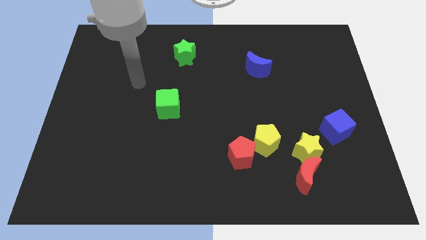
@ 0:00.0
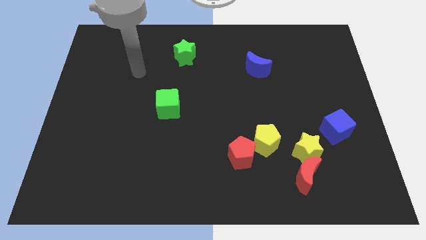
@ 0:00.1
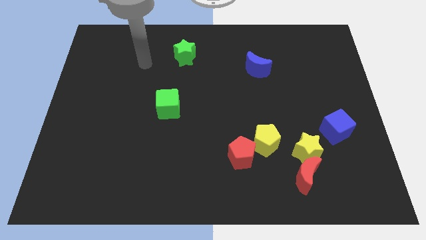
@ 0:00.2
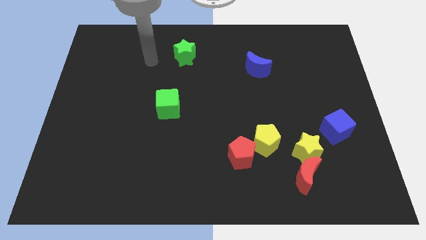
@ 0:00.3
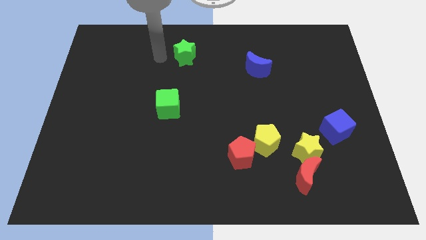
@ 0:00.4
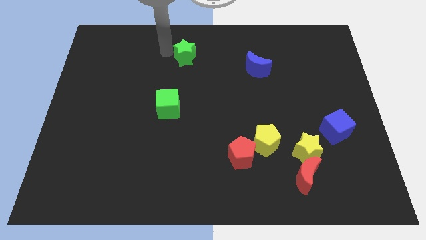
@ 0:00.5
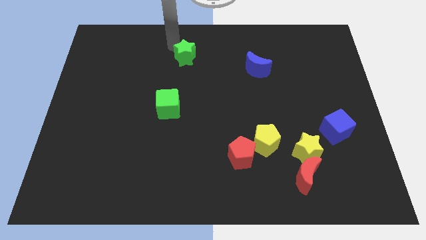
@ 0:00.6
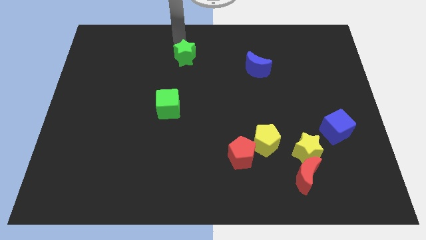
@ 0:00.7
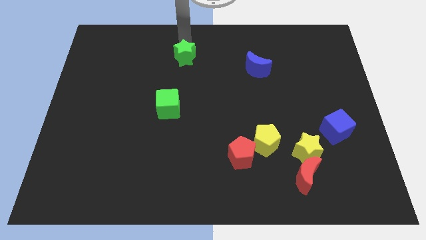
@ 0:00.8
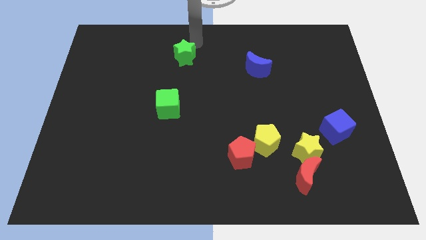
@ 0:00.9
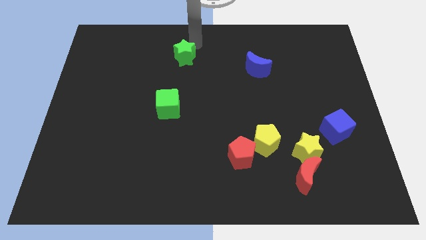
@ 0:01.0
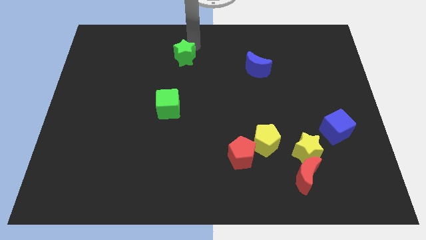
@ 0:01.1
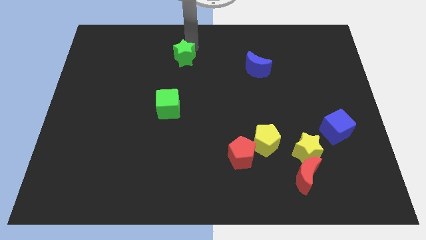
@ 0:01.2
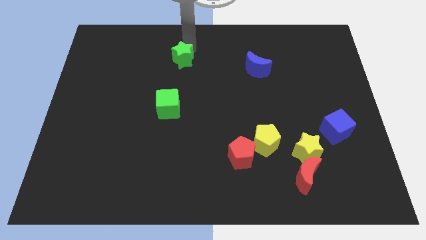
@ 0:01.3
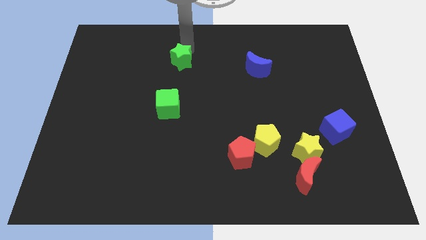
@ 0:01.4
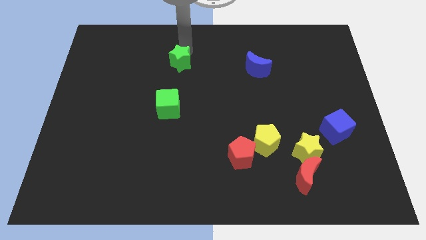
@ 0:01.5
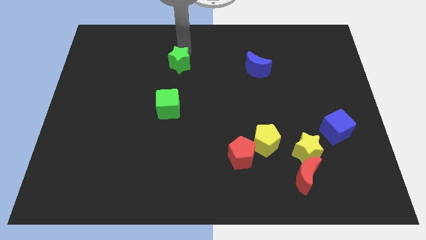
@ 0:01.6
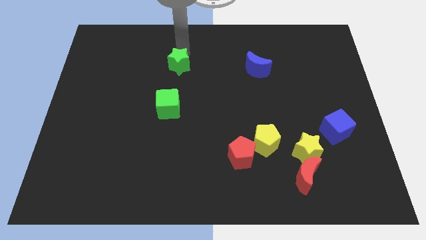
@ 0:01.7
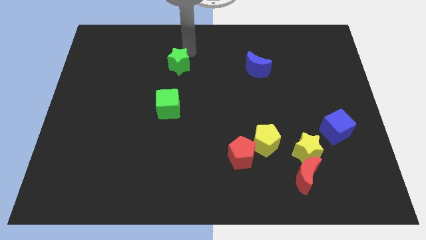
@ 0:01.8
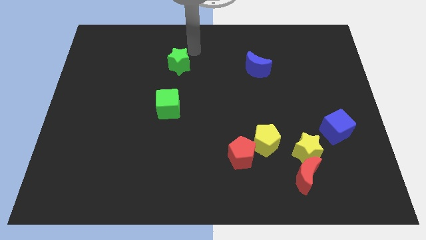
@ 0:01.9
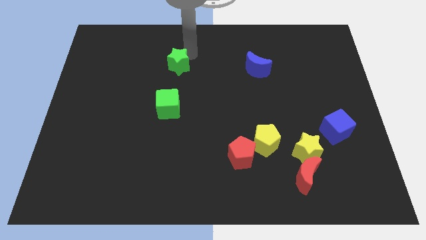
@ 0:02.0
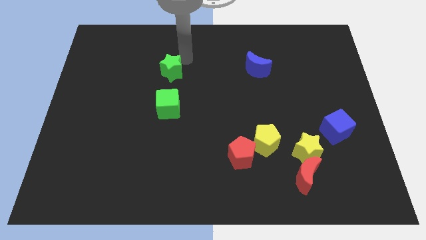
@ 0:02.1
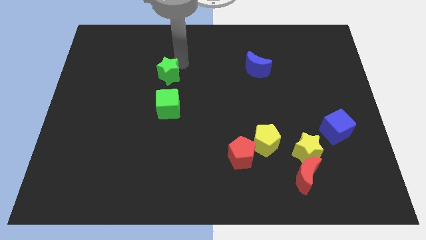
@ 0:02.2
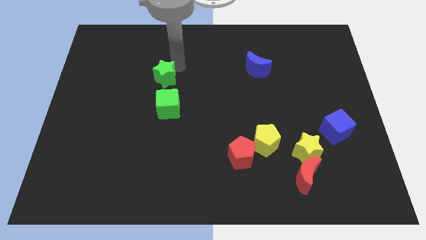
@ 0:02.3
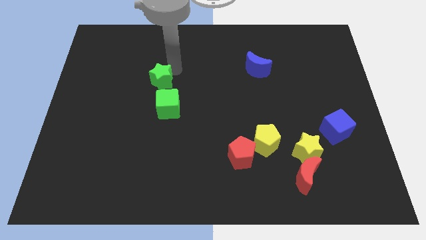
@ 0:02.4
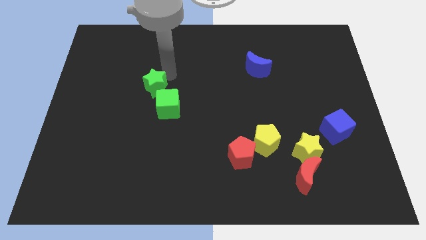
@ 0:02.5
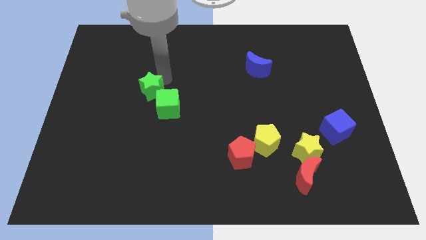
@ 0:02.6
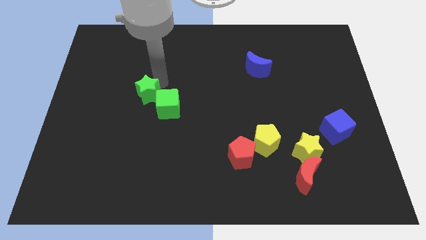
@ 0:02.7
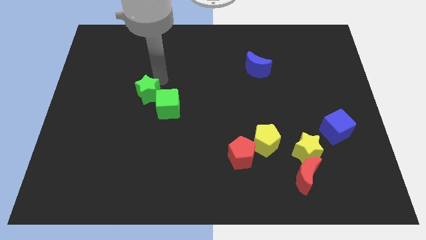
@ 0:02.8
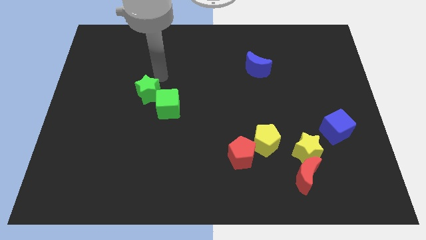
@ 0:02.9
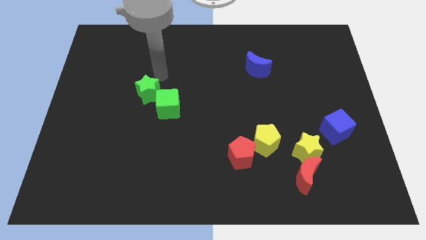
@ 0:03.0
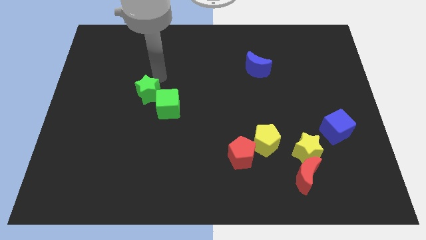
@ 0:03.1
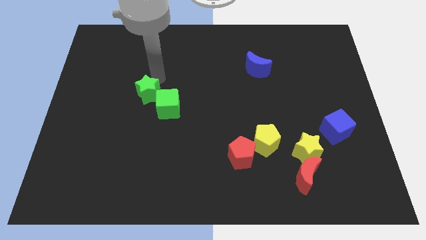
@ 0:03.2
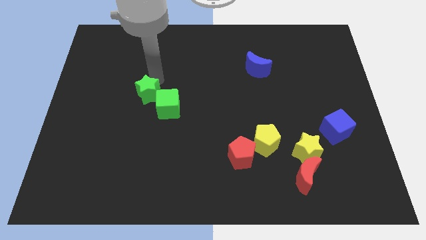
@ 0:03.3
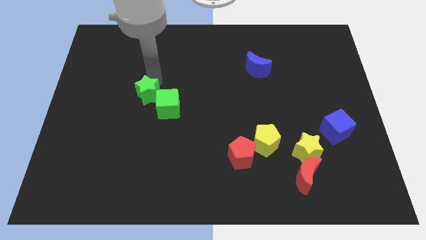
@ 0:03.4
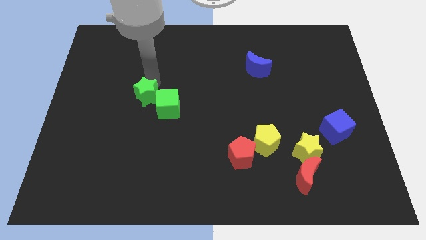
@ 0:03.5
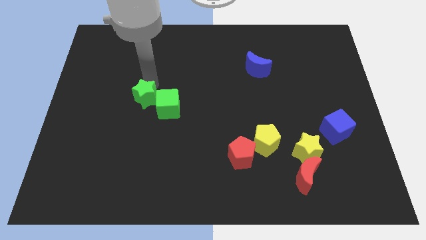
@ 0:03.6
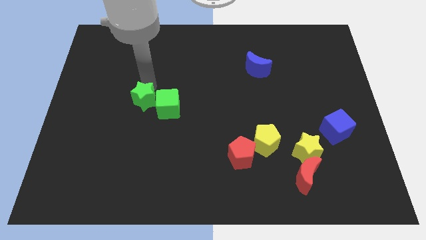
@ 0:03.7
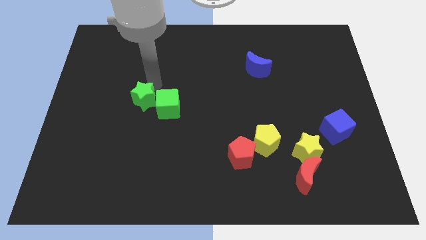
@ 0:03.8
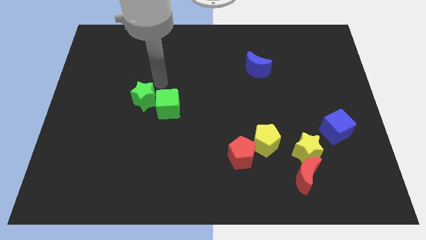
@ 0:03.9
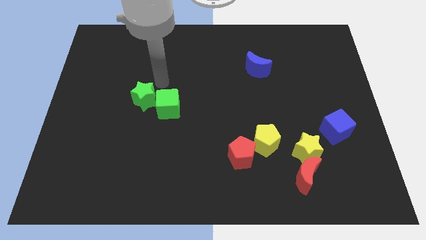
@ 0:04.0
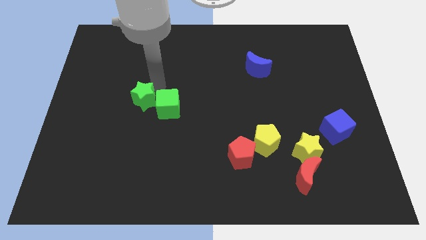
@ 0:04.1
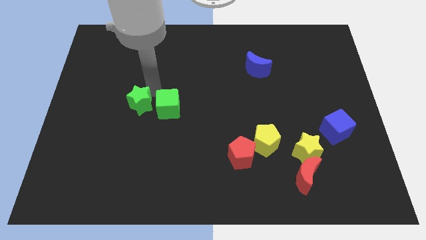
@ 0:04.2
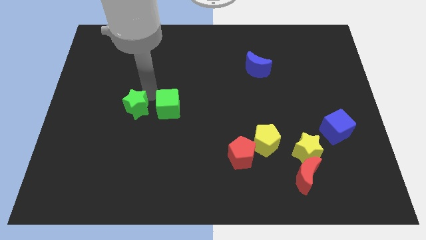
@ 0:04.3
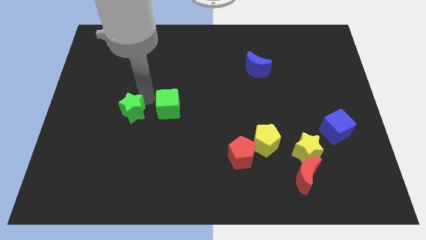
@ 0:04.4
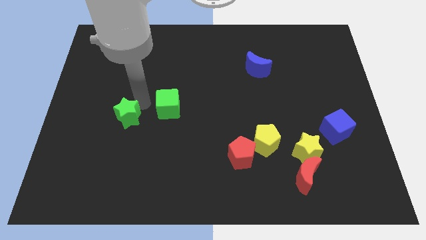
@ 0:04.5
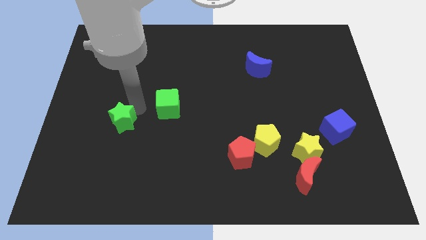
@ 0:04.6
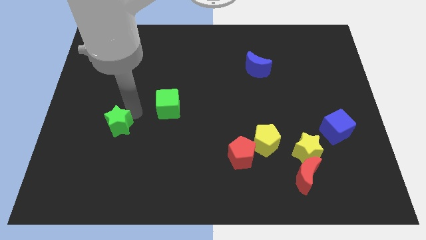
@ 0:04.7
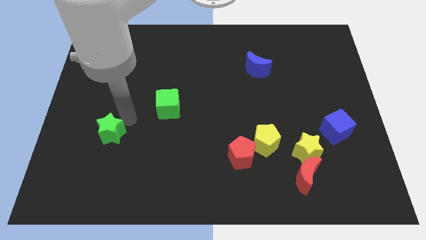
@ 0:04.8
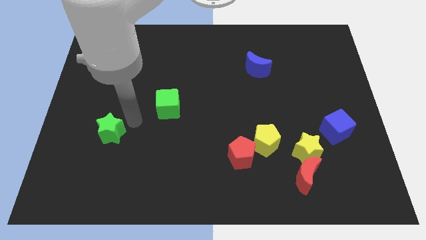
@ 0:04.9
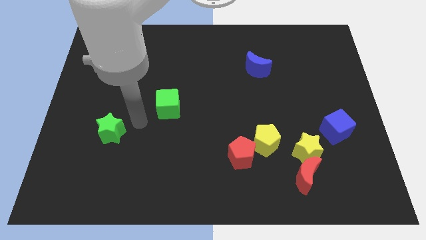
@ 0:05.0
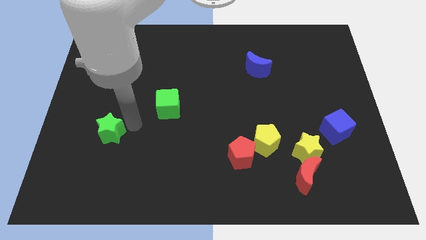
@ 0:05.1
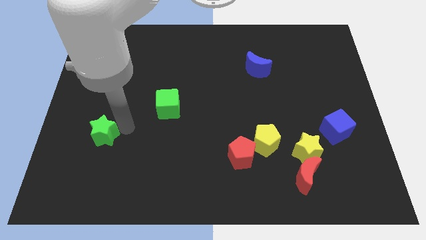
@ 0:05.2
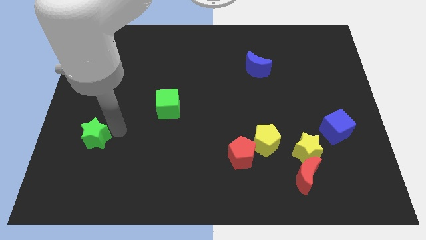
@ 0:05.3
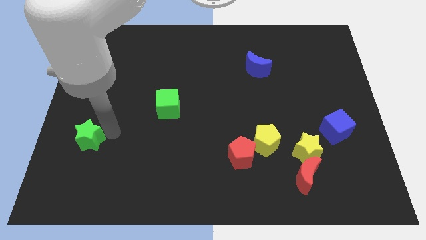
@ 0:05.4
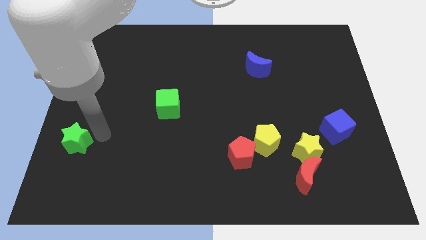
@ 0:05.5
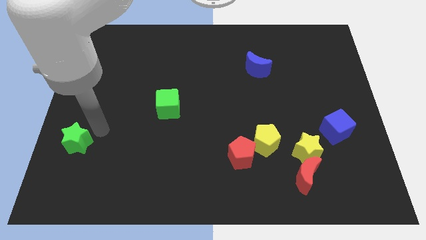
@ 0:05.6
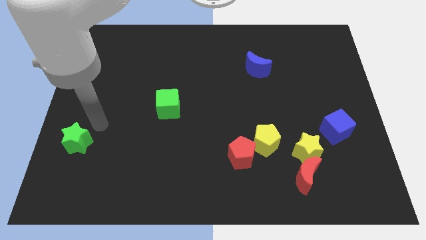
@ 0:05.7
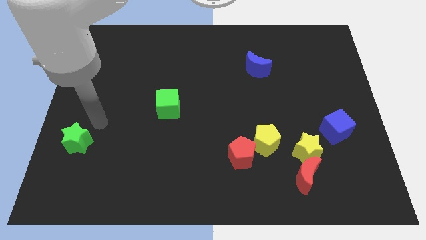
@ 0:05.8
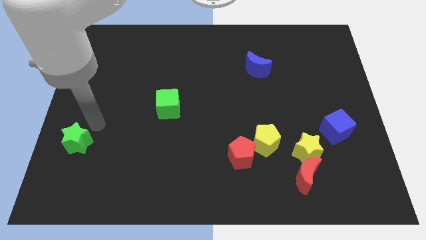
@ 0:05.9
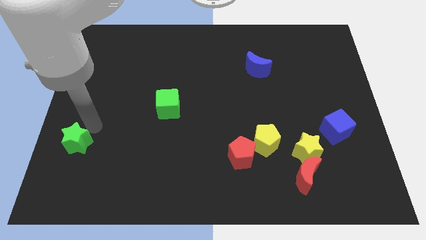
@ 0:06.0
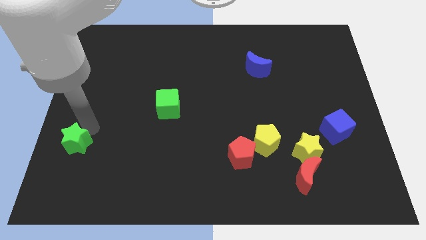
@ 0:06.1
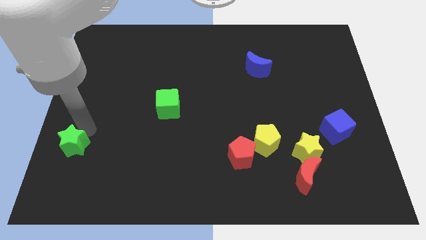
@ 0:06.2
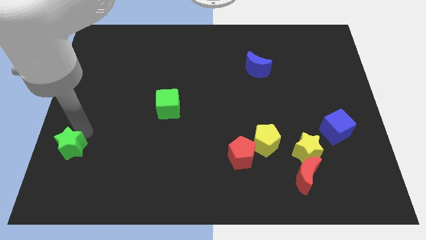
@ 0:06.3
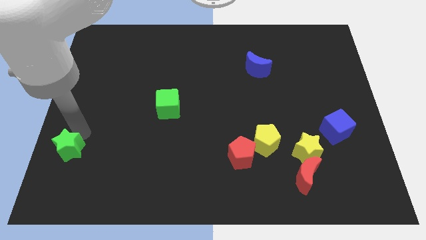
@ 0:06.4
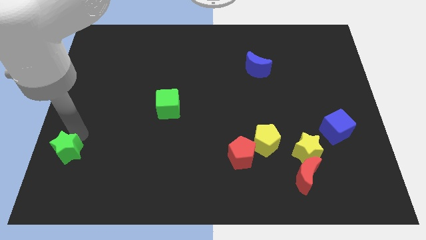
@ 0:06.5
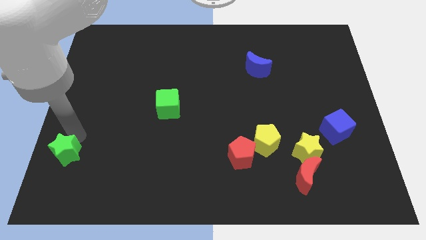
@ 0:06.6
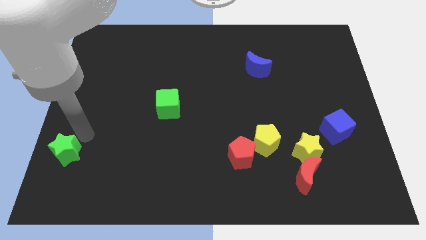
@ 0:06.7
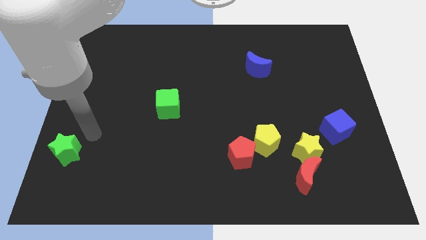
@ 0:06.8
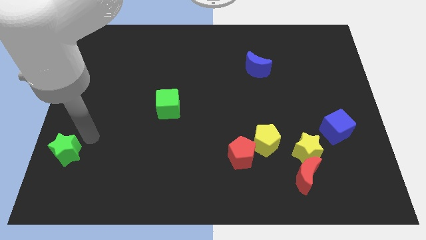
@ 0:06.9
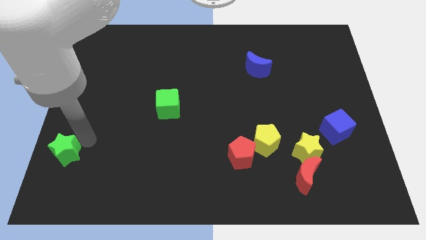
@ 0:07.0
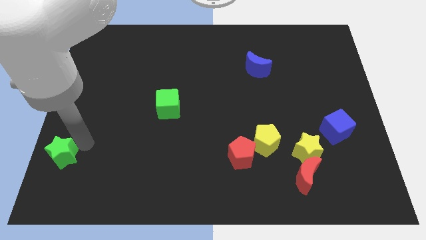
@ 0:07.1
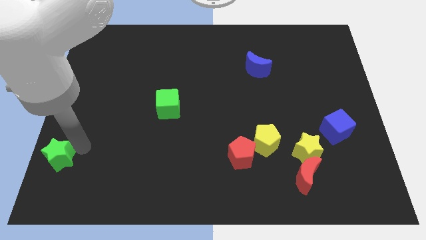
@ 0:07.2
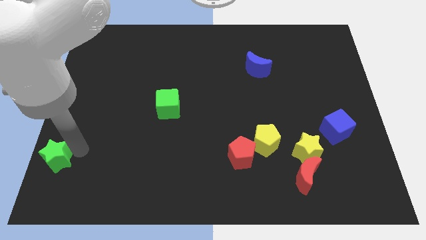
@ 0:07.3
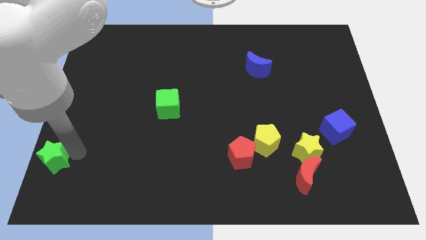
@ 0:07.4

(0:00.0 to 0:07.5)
move the green star to the bottom left of the board
